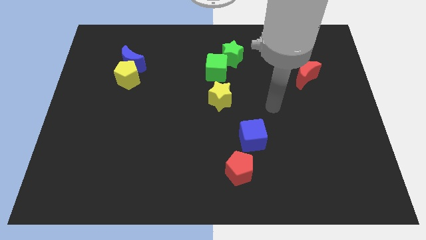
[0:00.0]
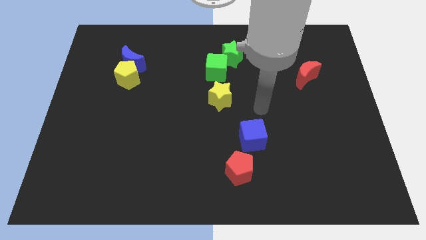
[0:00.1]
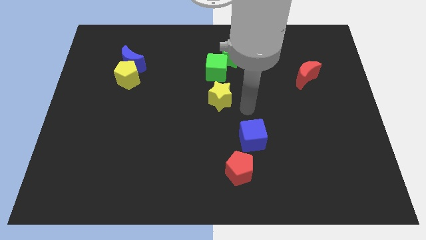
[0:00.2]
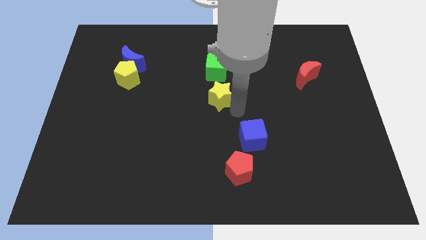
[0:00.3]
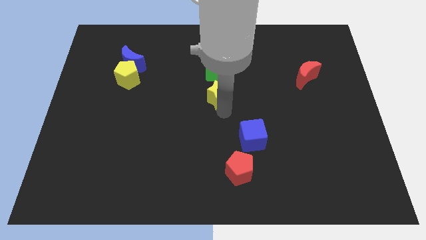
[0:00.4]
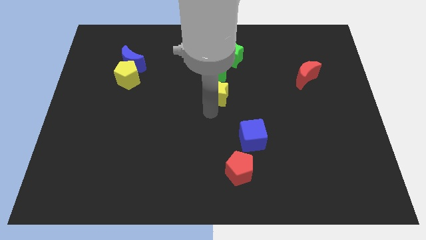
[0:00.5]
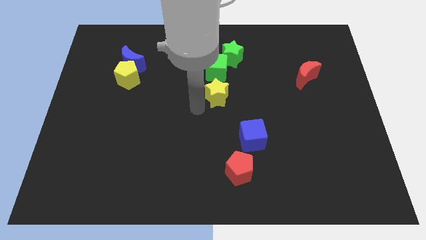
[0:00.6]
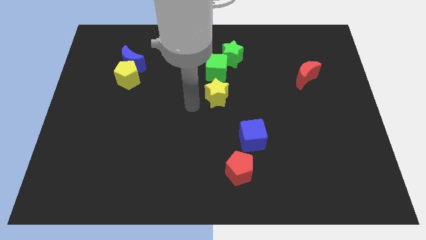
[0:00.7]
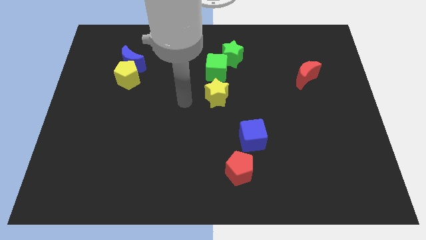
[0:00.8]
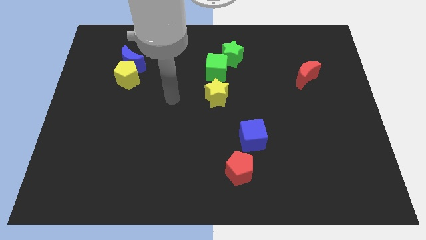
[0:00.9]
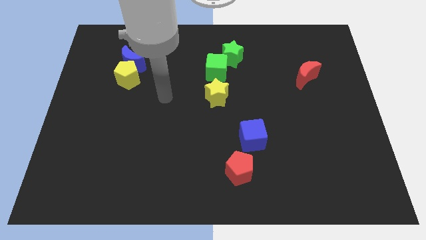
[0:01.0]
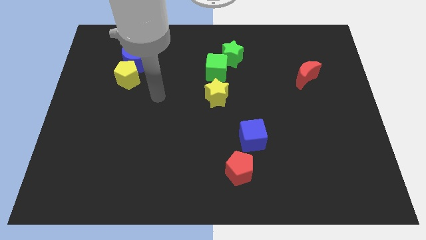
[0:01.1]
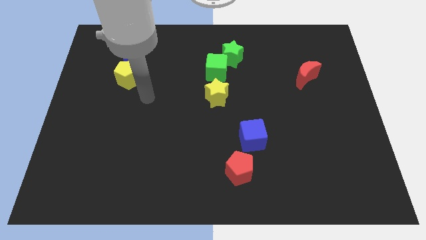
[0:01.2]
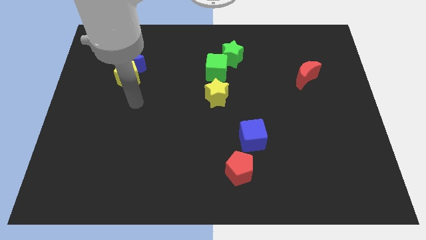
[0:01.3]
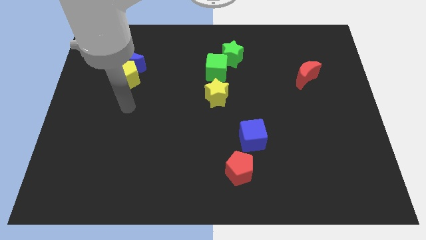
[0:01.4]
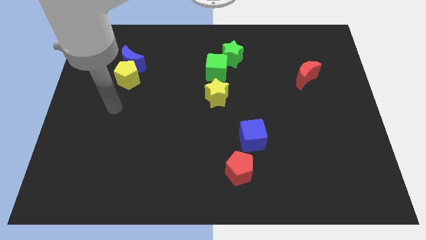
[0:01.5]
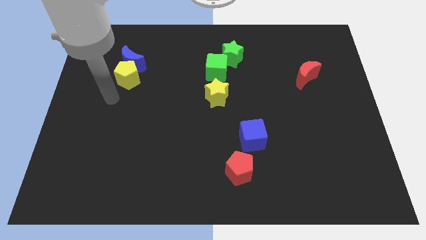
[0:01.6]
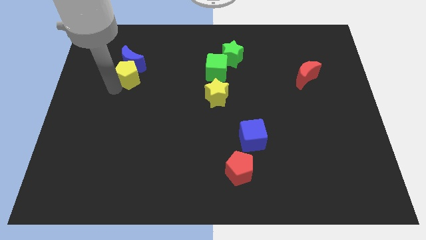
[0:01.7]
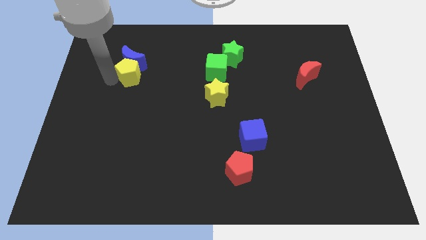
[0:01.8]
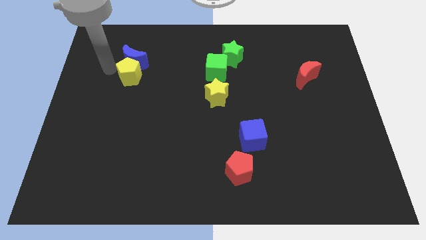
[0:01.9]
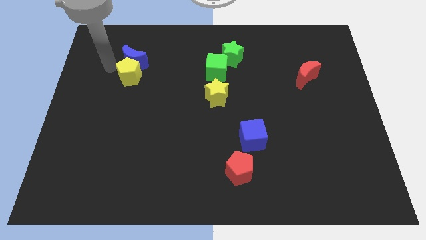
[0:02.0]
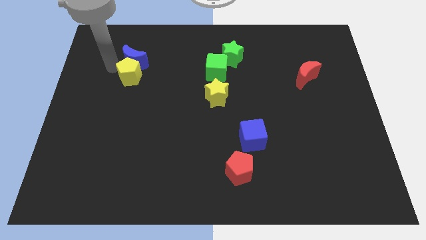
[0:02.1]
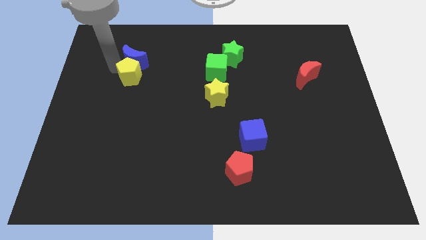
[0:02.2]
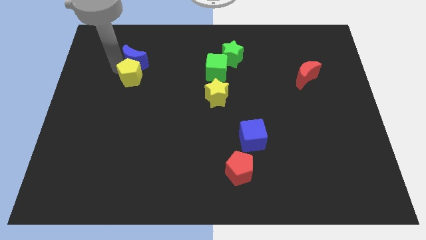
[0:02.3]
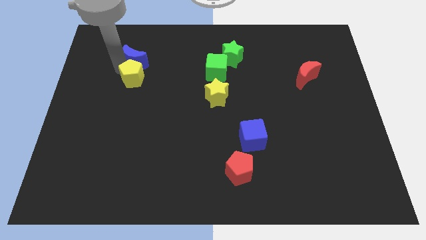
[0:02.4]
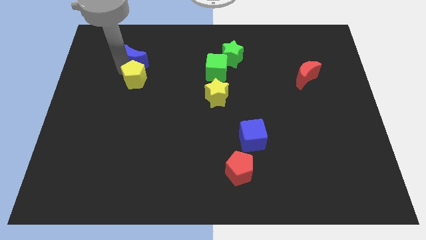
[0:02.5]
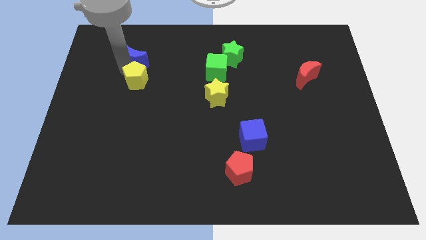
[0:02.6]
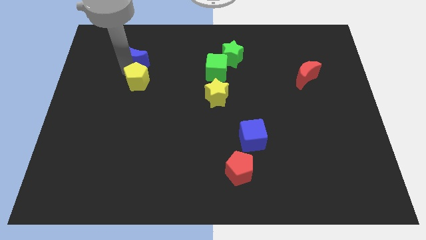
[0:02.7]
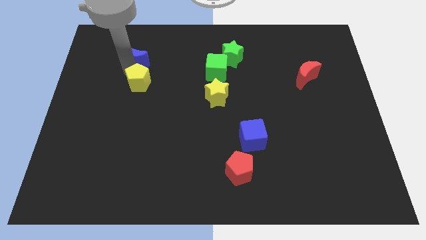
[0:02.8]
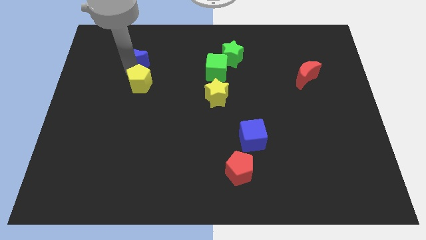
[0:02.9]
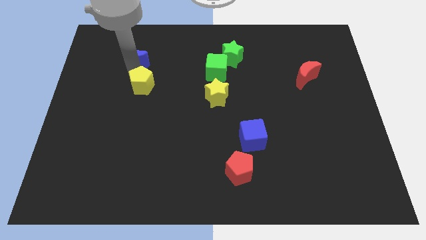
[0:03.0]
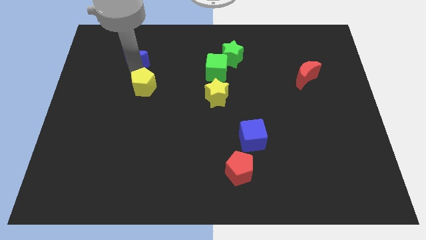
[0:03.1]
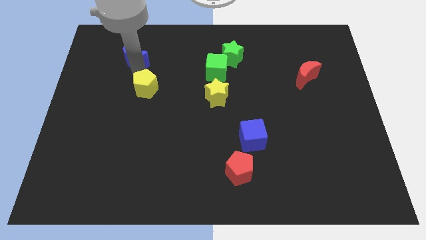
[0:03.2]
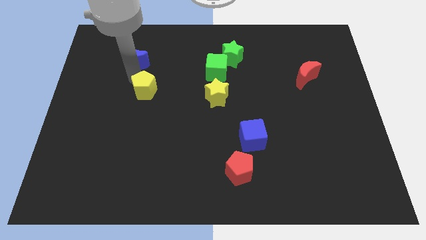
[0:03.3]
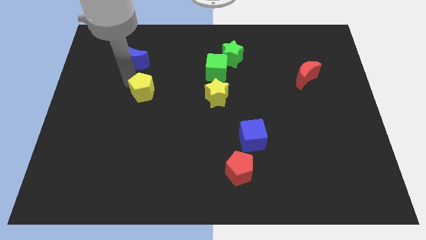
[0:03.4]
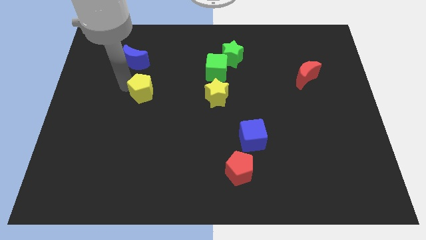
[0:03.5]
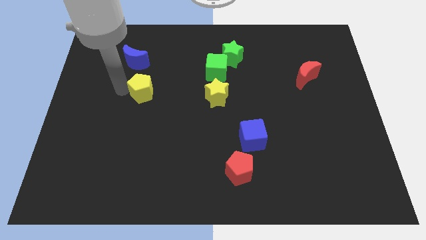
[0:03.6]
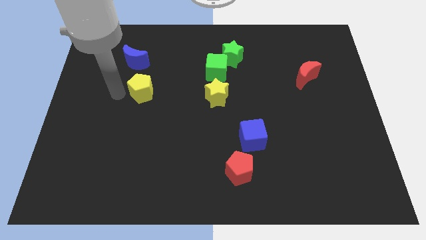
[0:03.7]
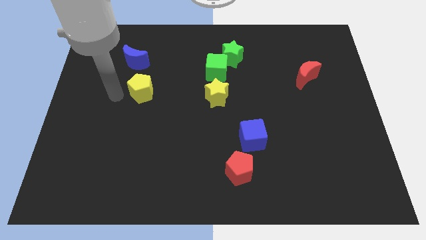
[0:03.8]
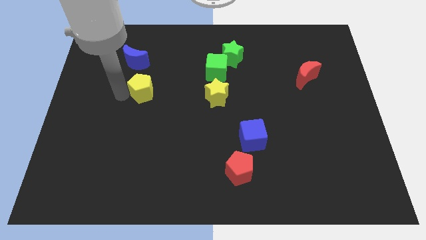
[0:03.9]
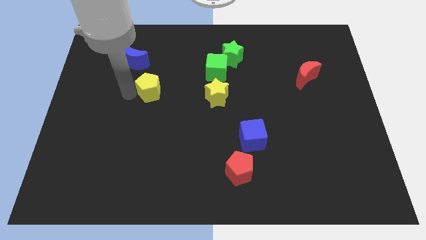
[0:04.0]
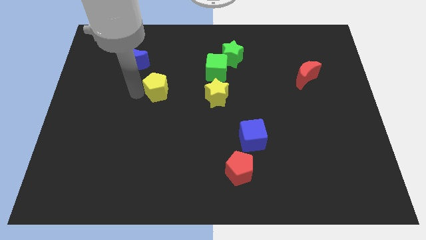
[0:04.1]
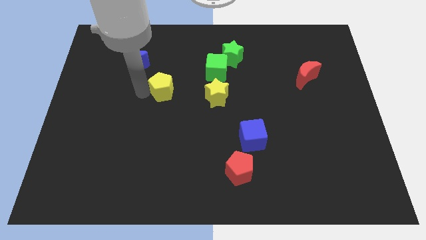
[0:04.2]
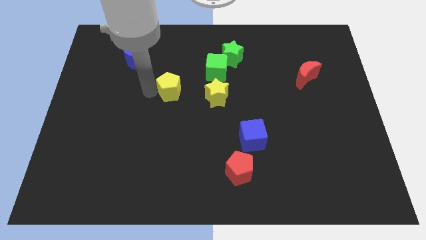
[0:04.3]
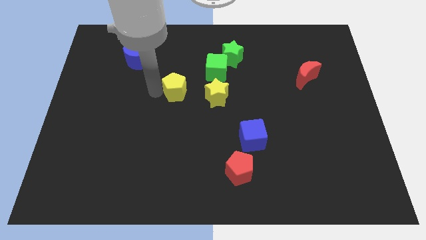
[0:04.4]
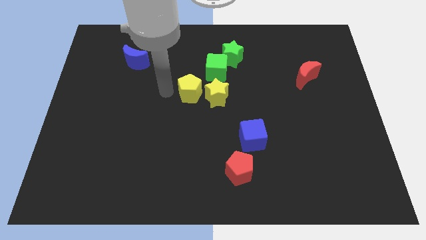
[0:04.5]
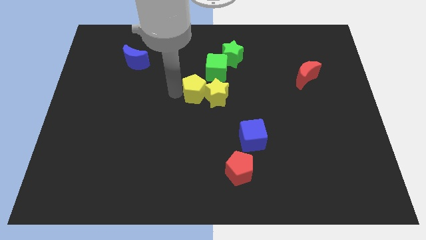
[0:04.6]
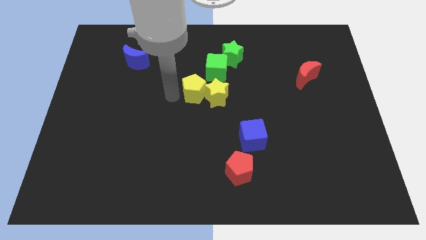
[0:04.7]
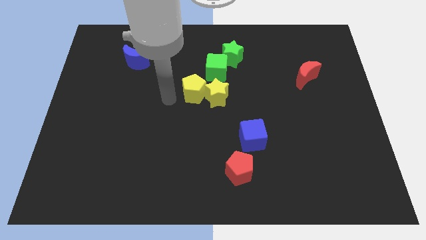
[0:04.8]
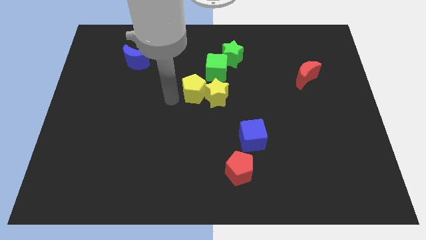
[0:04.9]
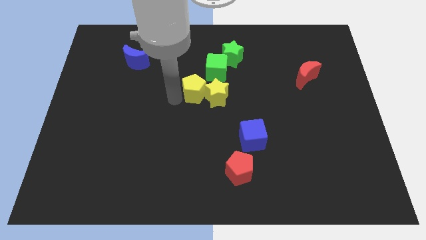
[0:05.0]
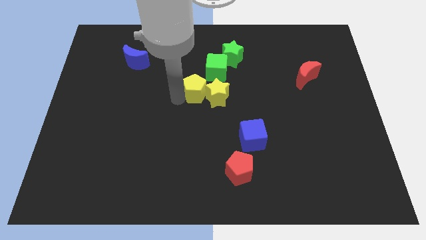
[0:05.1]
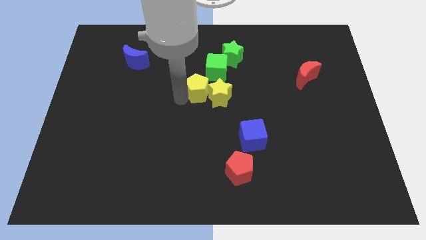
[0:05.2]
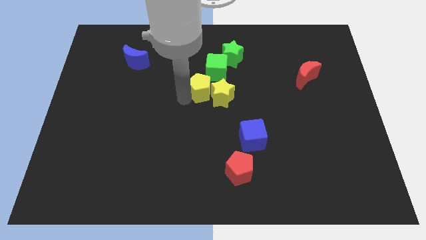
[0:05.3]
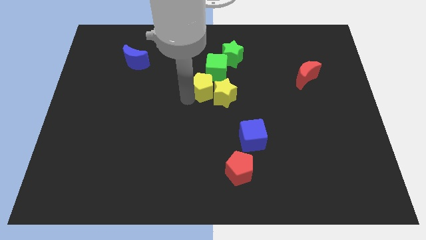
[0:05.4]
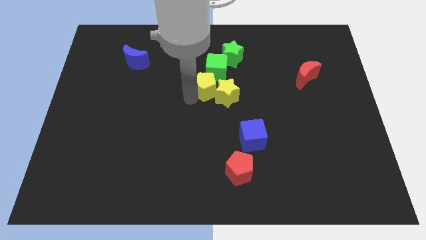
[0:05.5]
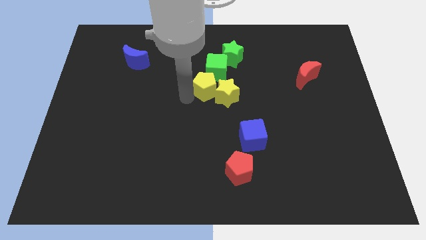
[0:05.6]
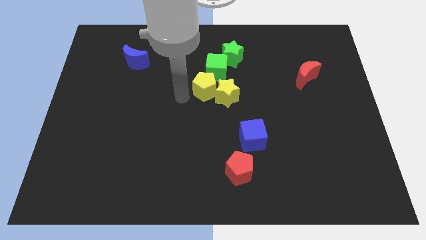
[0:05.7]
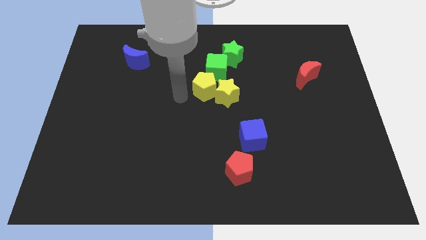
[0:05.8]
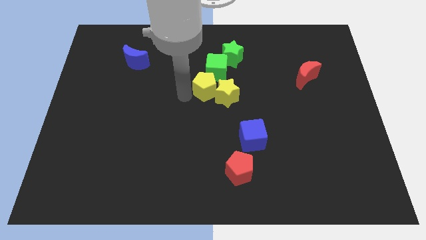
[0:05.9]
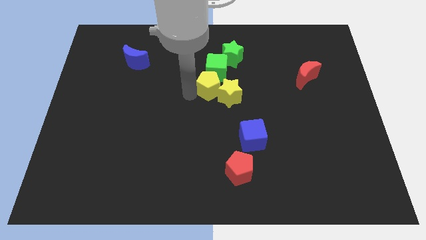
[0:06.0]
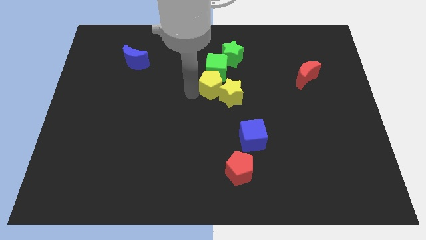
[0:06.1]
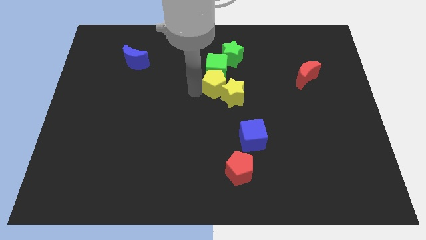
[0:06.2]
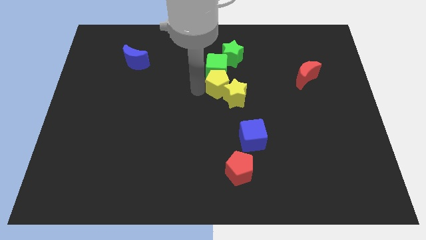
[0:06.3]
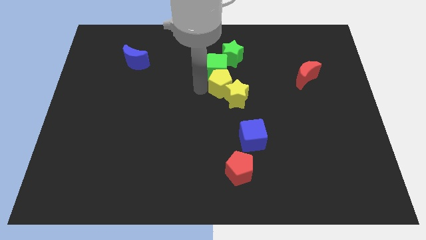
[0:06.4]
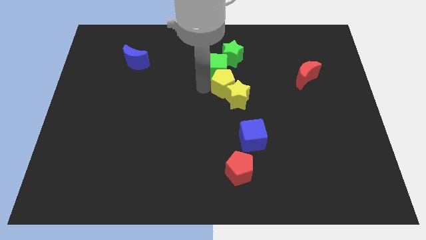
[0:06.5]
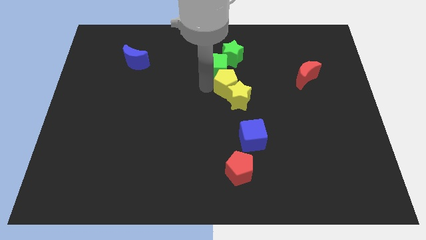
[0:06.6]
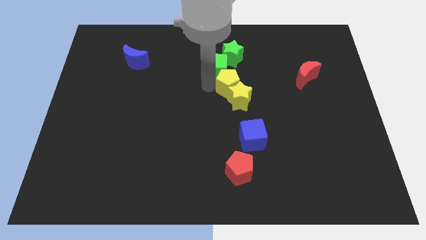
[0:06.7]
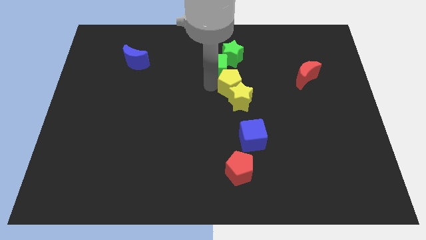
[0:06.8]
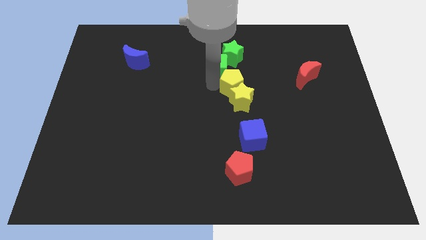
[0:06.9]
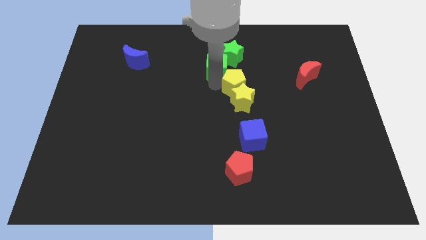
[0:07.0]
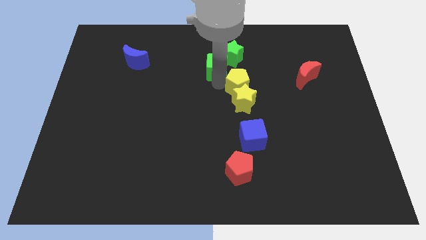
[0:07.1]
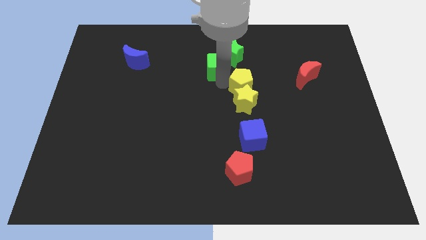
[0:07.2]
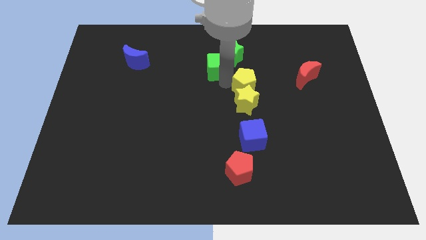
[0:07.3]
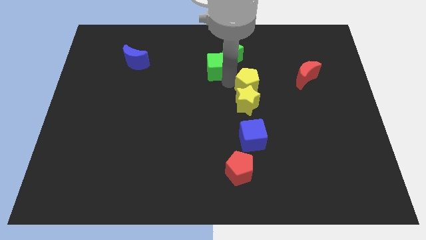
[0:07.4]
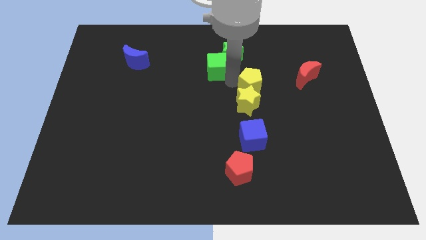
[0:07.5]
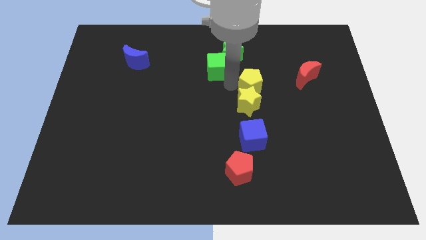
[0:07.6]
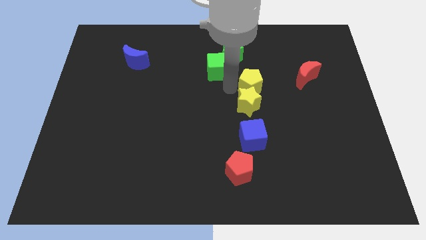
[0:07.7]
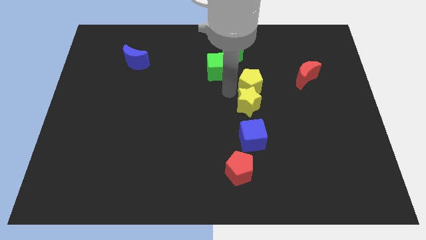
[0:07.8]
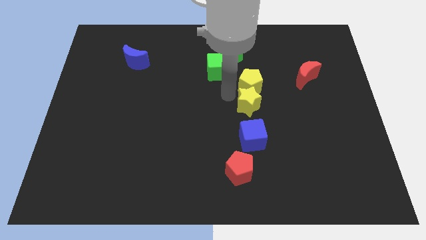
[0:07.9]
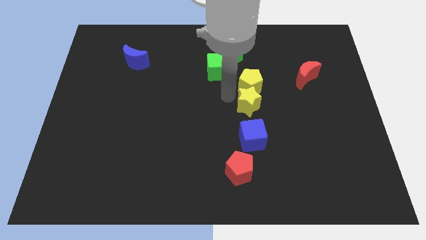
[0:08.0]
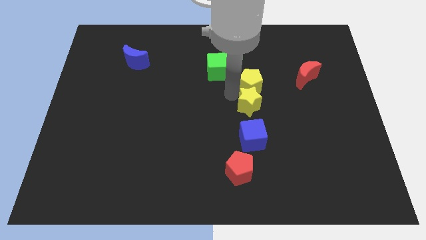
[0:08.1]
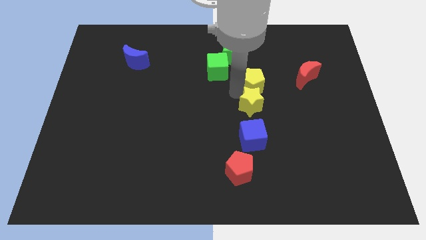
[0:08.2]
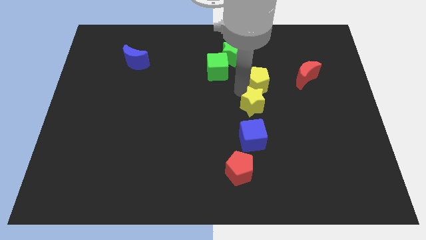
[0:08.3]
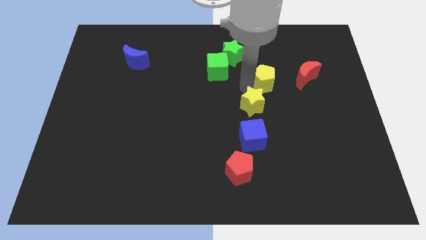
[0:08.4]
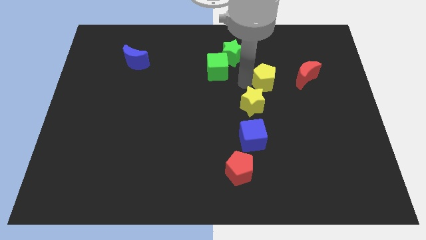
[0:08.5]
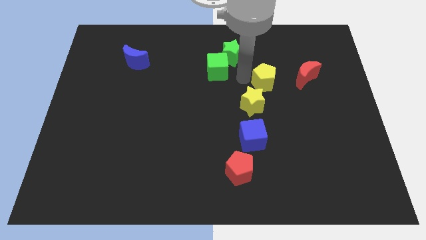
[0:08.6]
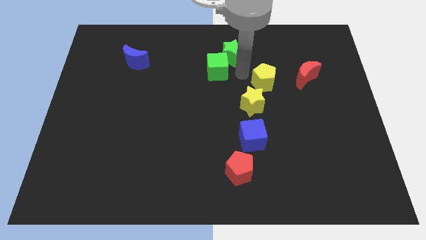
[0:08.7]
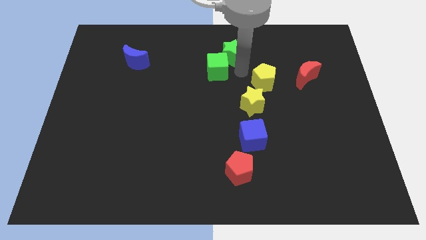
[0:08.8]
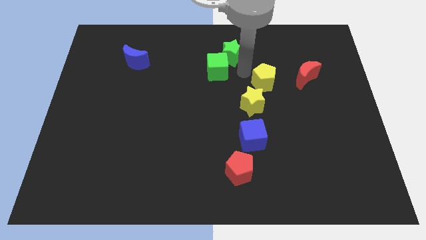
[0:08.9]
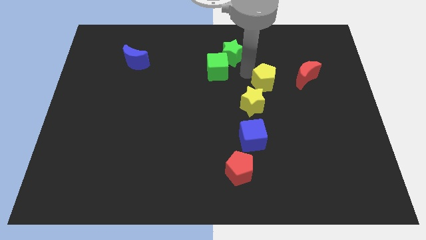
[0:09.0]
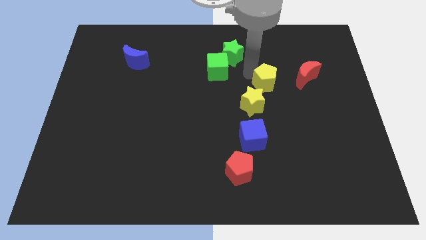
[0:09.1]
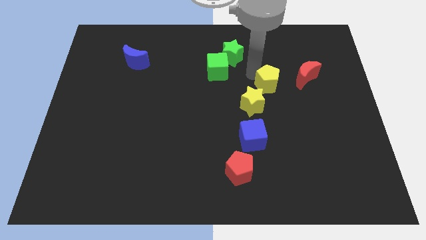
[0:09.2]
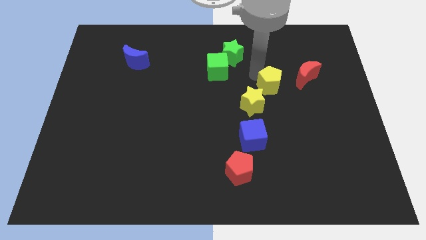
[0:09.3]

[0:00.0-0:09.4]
slide the yellow pentagon to the bottom left side of the red moon
